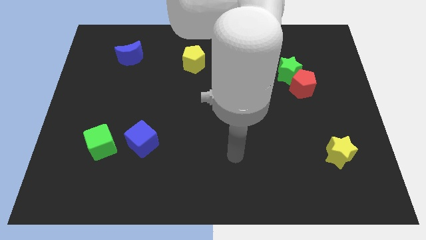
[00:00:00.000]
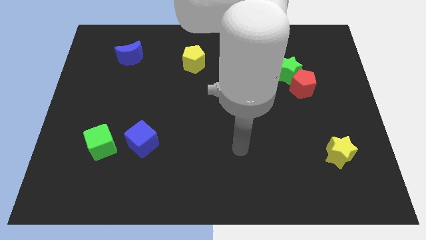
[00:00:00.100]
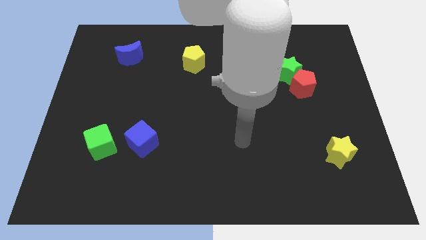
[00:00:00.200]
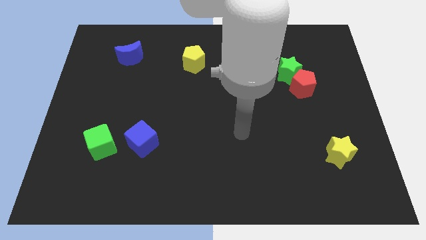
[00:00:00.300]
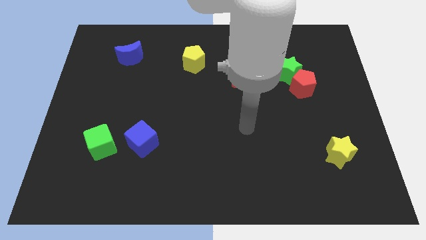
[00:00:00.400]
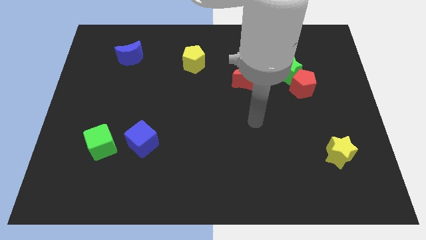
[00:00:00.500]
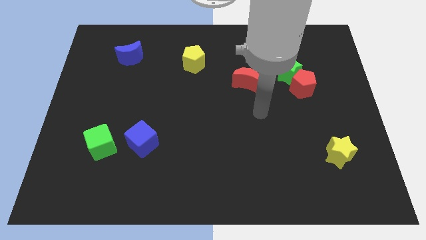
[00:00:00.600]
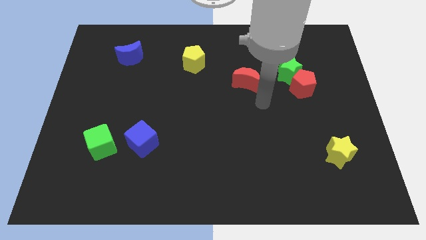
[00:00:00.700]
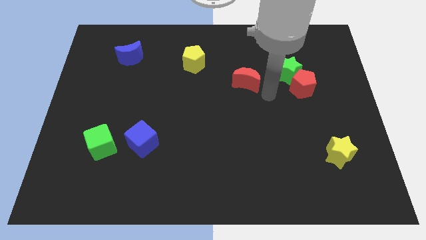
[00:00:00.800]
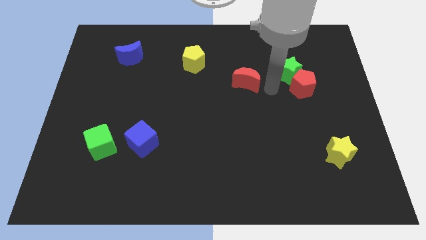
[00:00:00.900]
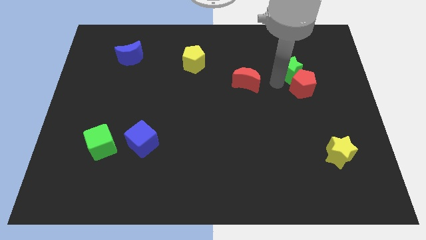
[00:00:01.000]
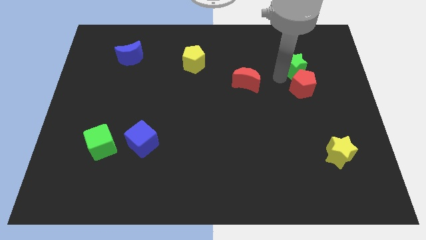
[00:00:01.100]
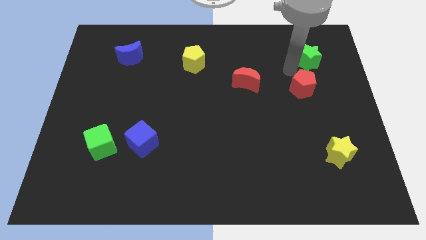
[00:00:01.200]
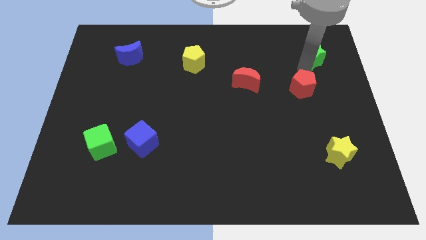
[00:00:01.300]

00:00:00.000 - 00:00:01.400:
pull the red pentagon apart from the green star

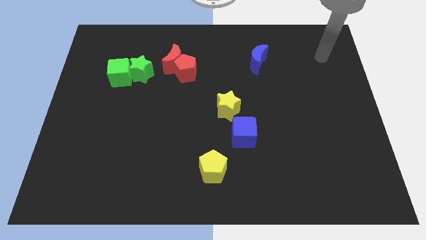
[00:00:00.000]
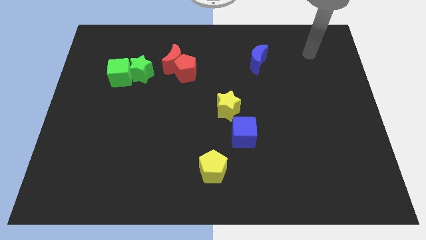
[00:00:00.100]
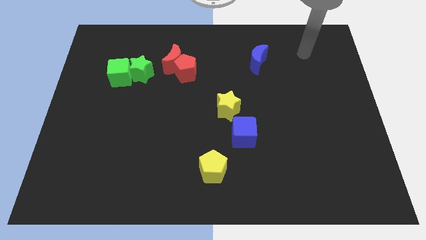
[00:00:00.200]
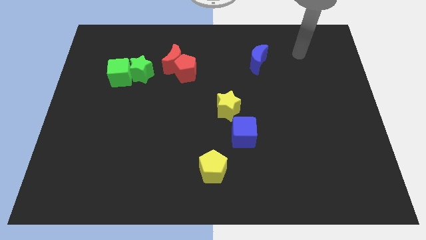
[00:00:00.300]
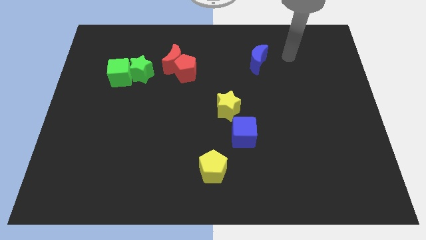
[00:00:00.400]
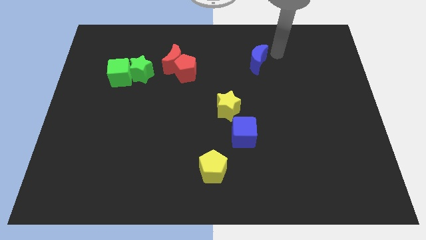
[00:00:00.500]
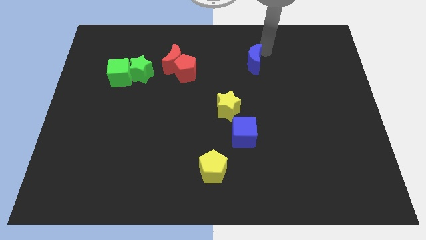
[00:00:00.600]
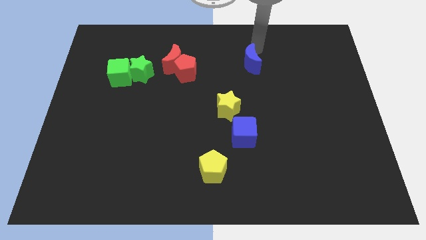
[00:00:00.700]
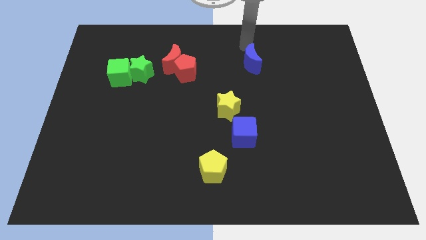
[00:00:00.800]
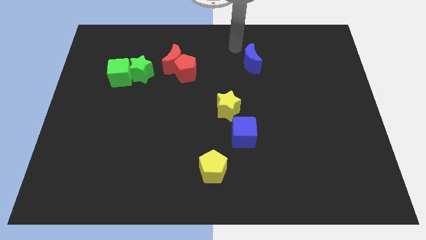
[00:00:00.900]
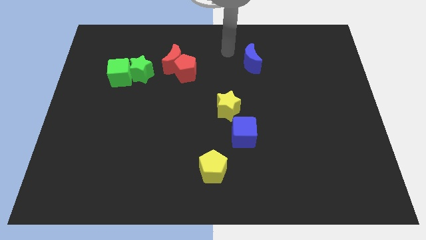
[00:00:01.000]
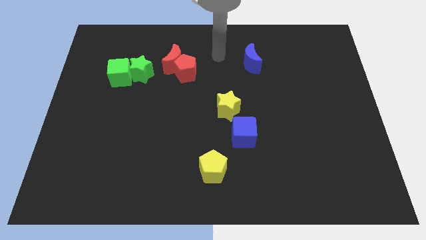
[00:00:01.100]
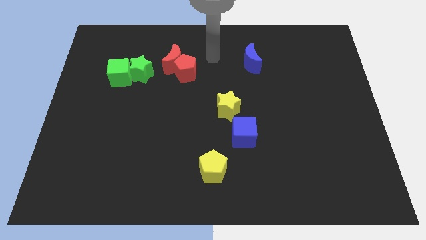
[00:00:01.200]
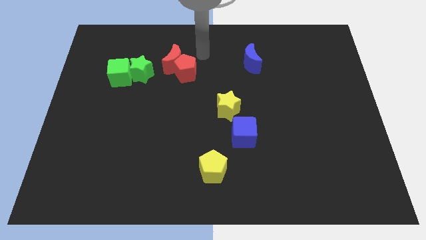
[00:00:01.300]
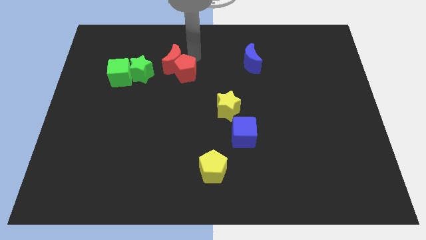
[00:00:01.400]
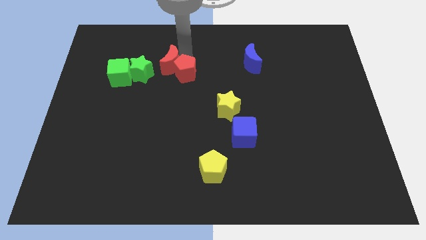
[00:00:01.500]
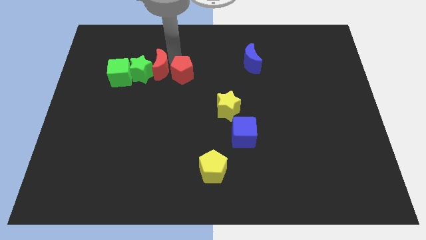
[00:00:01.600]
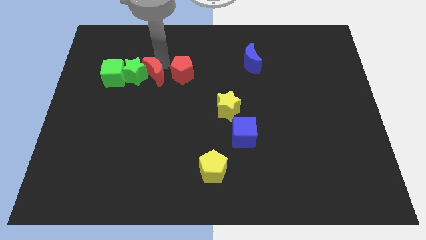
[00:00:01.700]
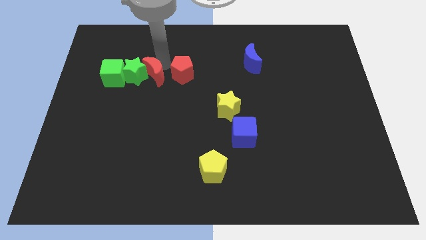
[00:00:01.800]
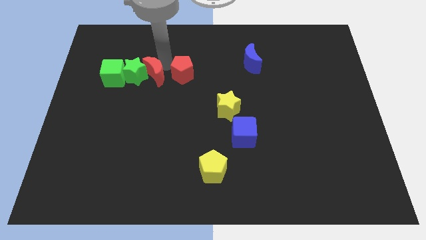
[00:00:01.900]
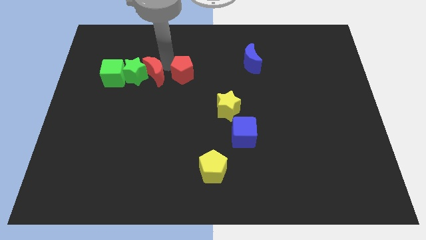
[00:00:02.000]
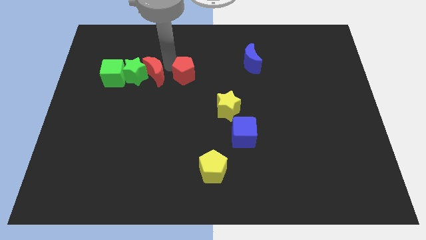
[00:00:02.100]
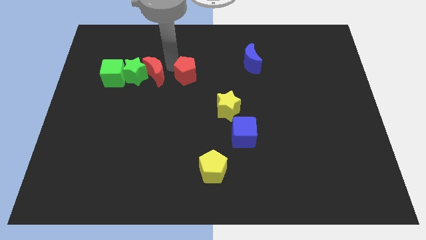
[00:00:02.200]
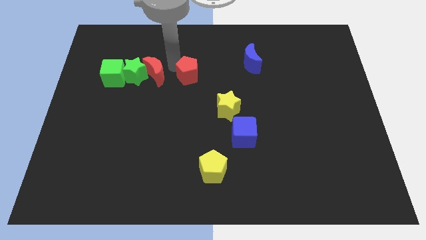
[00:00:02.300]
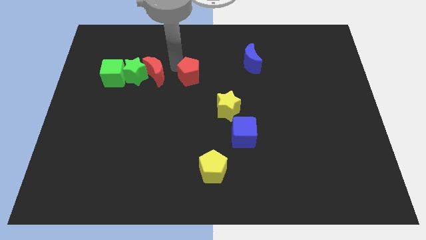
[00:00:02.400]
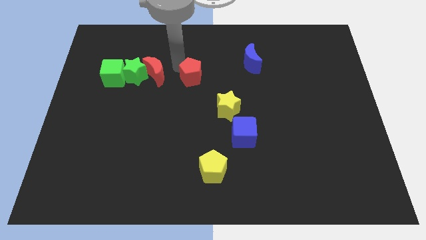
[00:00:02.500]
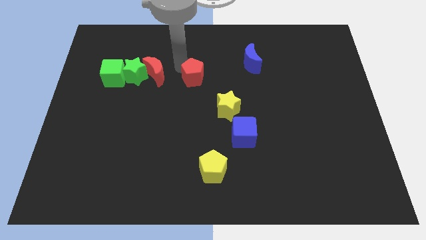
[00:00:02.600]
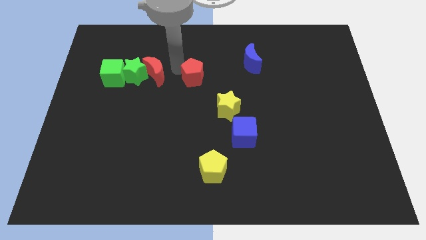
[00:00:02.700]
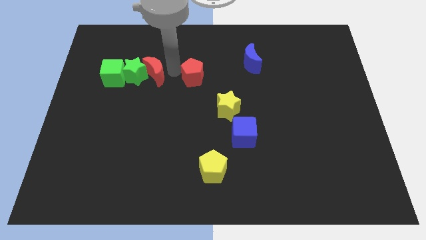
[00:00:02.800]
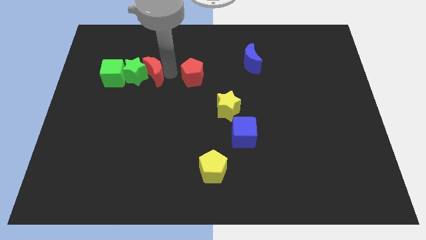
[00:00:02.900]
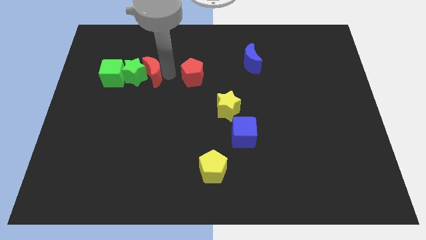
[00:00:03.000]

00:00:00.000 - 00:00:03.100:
pull the red pentagon apart from the red moon

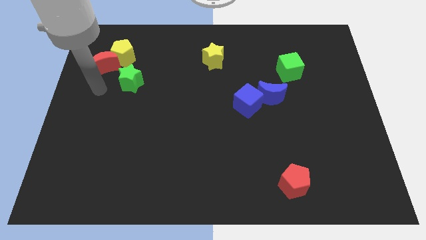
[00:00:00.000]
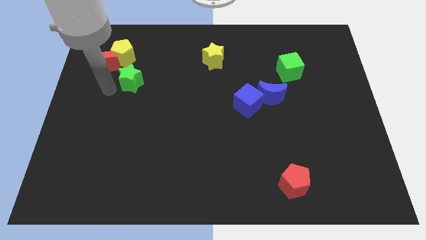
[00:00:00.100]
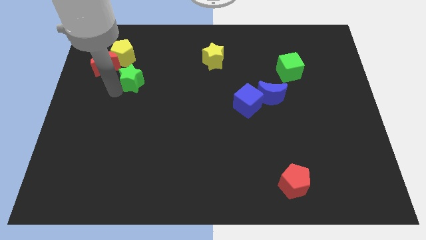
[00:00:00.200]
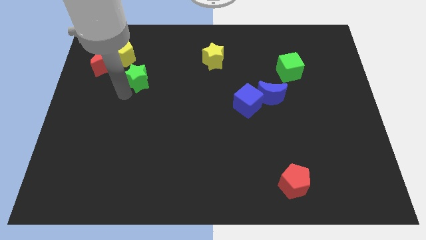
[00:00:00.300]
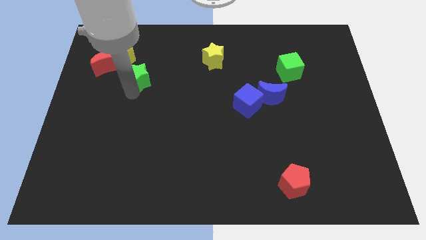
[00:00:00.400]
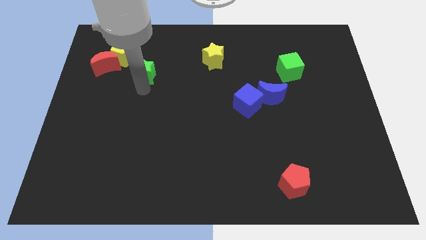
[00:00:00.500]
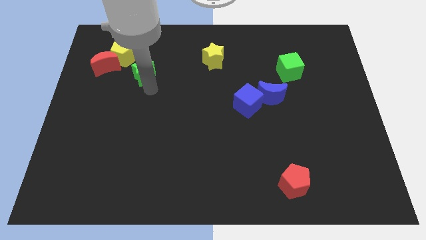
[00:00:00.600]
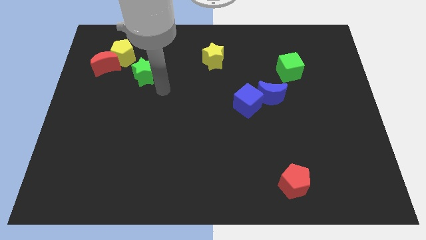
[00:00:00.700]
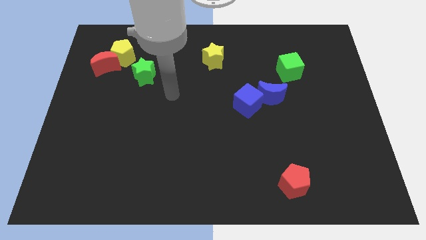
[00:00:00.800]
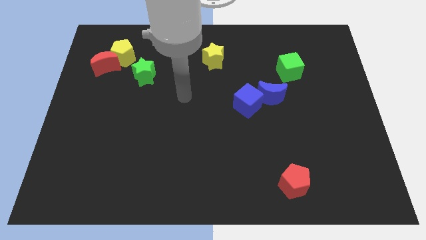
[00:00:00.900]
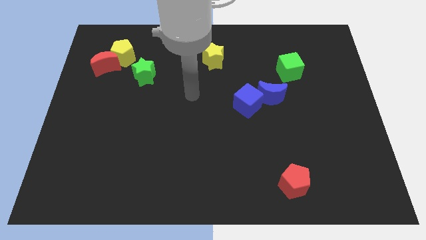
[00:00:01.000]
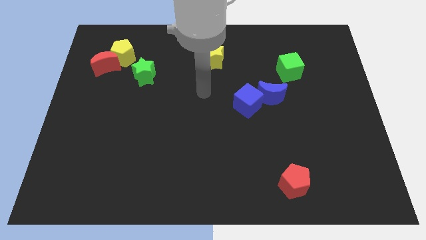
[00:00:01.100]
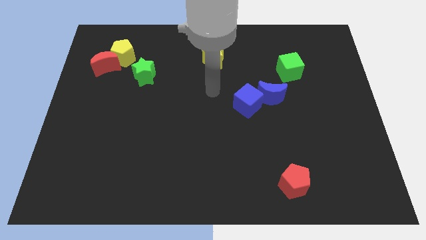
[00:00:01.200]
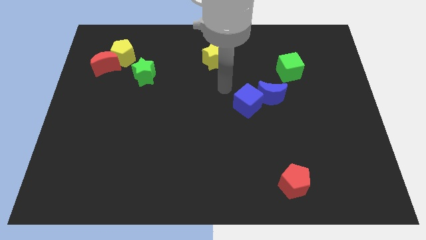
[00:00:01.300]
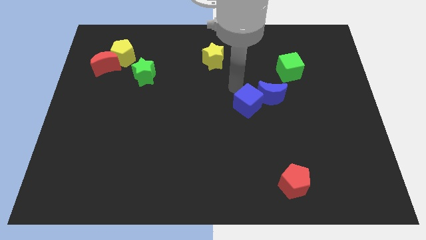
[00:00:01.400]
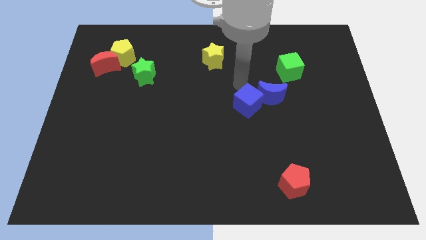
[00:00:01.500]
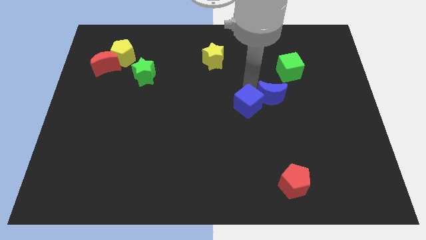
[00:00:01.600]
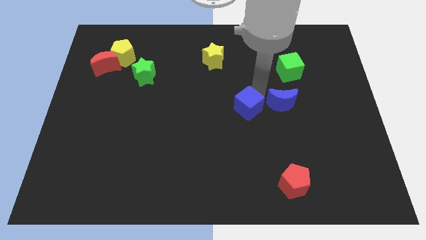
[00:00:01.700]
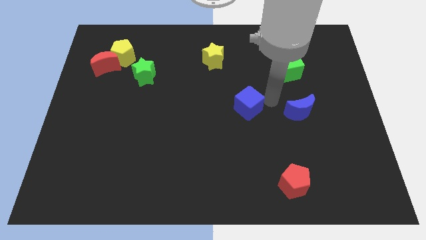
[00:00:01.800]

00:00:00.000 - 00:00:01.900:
pull the blue cube apart from the blue moon

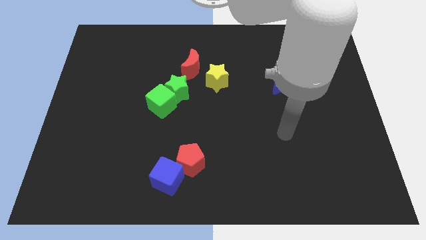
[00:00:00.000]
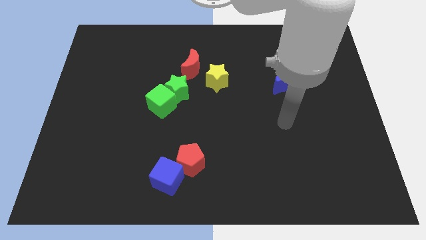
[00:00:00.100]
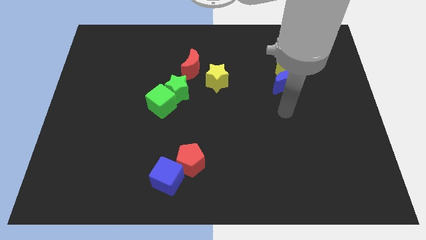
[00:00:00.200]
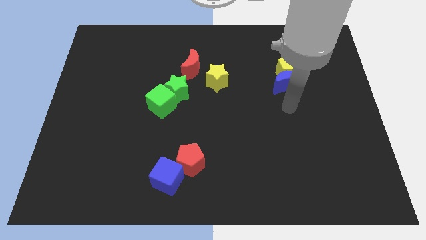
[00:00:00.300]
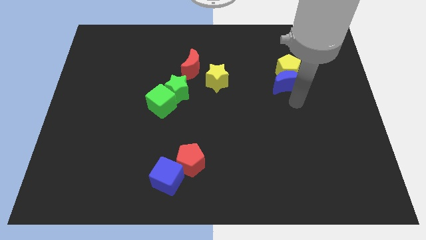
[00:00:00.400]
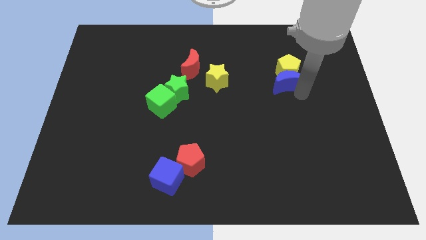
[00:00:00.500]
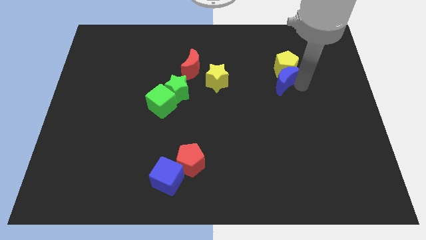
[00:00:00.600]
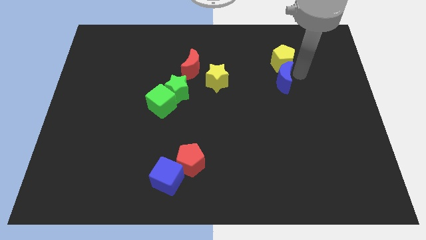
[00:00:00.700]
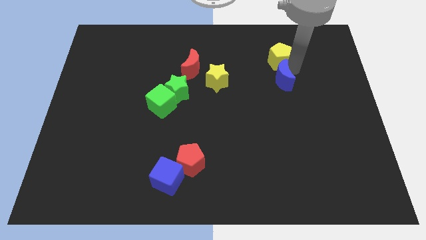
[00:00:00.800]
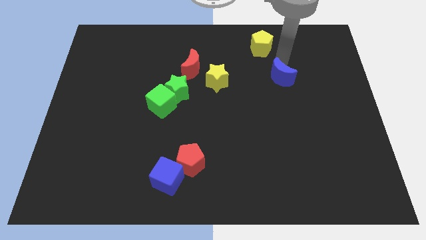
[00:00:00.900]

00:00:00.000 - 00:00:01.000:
move the blue moon away from the yellow pentagon

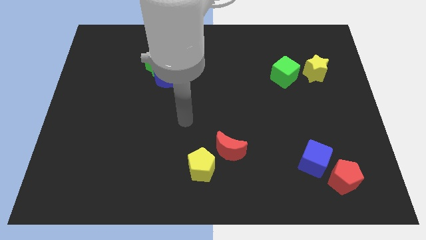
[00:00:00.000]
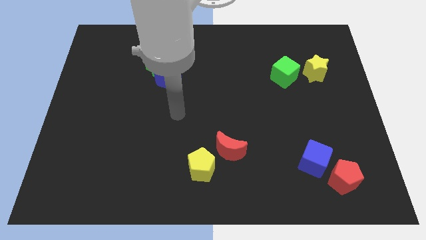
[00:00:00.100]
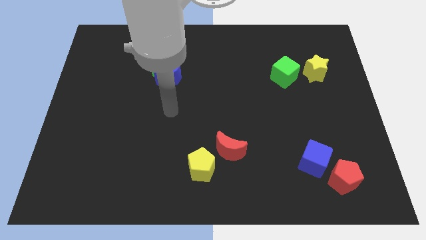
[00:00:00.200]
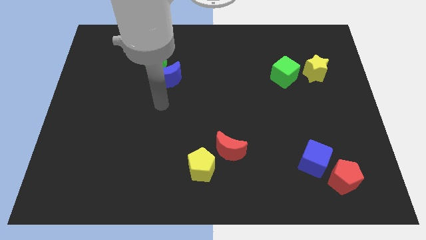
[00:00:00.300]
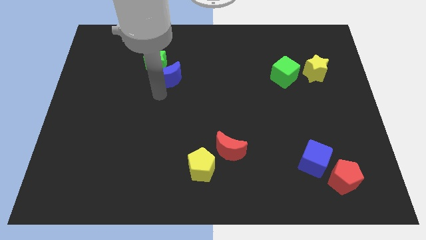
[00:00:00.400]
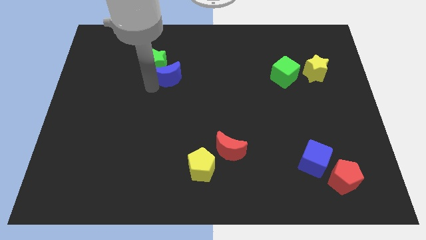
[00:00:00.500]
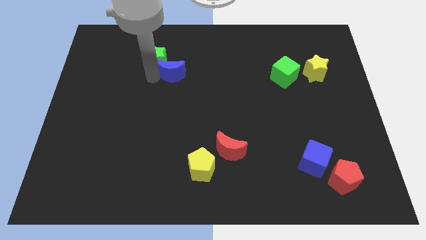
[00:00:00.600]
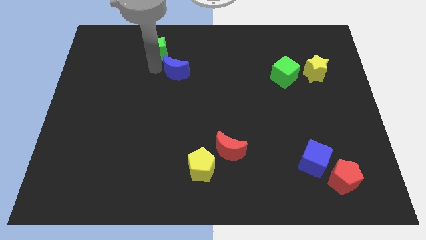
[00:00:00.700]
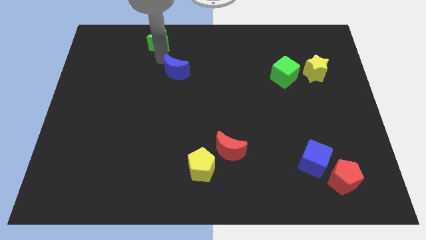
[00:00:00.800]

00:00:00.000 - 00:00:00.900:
move the blue moon away from the green star

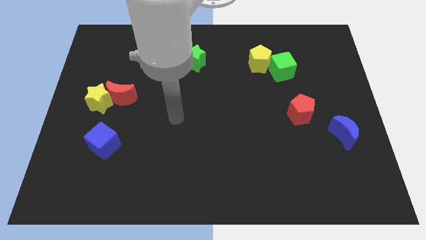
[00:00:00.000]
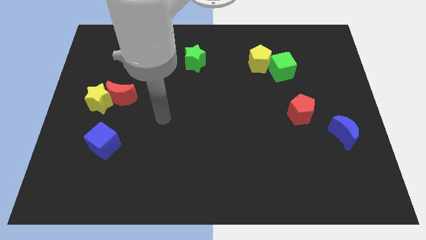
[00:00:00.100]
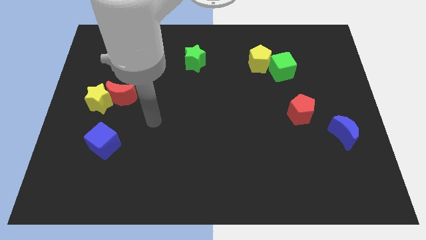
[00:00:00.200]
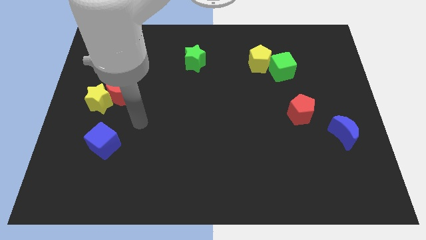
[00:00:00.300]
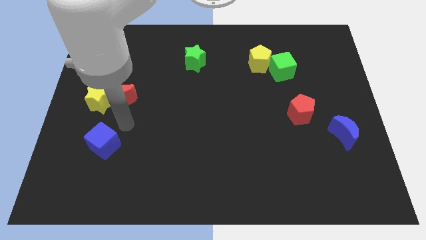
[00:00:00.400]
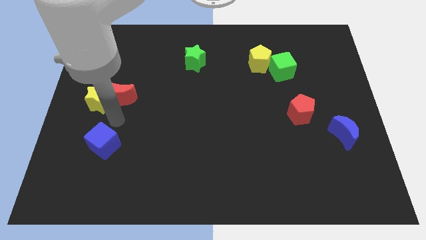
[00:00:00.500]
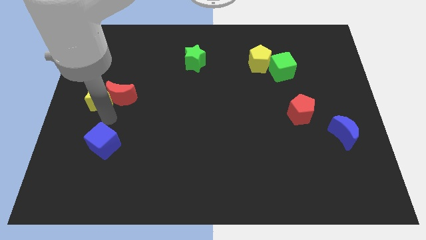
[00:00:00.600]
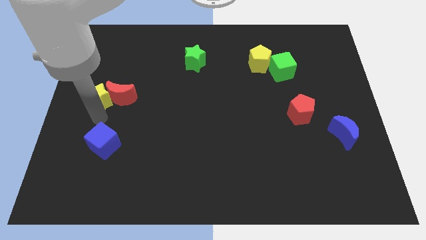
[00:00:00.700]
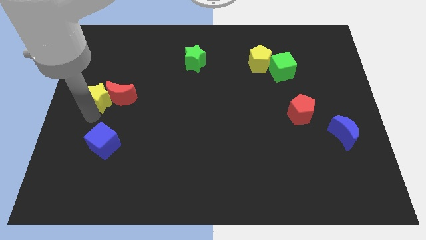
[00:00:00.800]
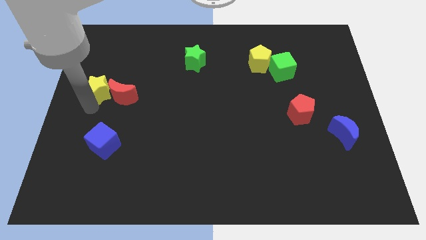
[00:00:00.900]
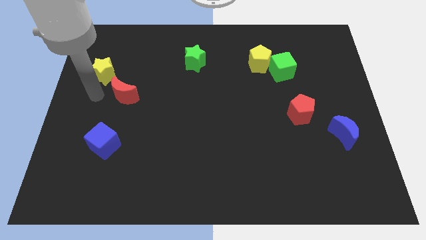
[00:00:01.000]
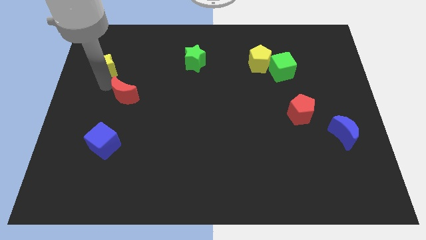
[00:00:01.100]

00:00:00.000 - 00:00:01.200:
pull the red moon apart from the yellow star
